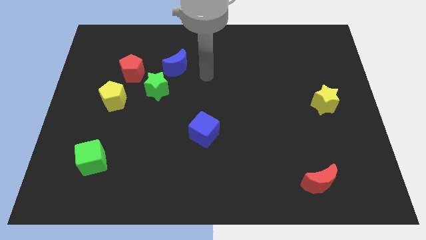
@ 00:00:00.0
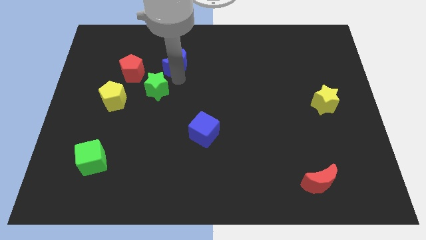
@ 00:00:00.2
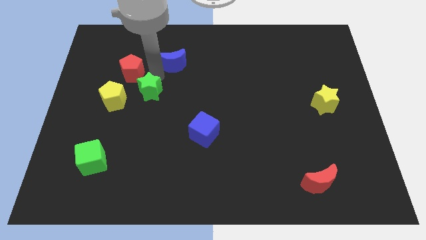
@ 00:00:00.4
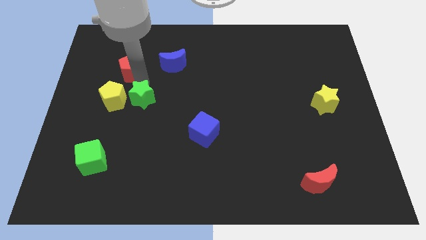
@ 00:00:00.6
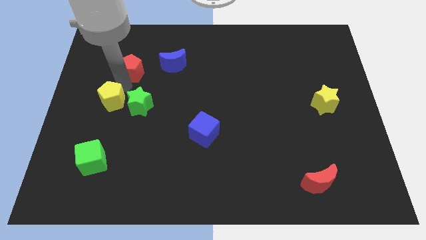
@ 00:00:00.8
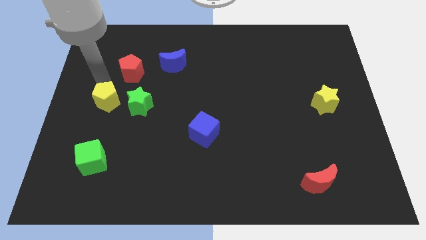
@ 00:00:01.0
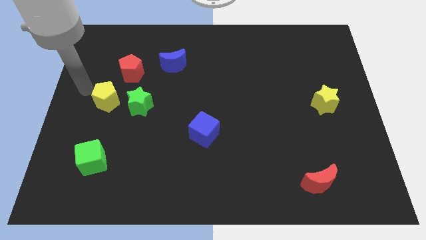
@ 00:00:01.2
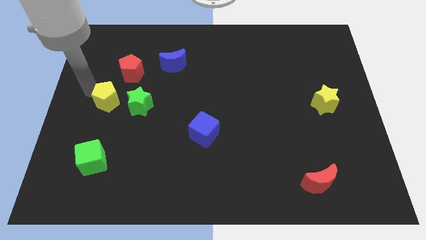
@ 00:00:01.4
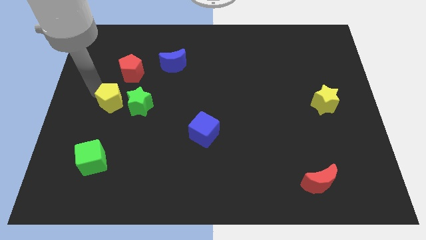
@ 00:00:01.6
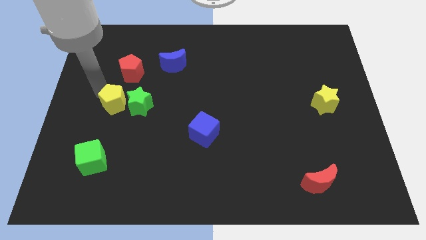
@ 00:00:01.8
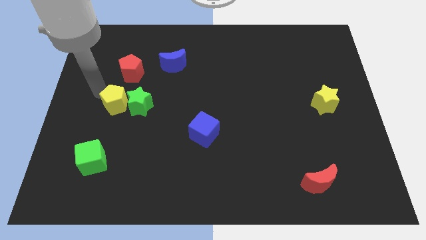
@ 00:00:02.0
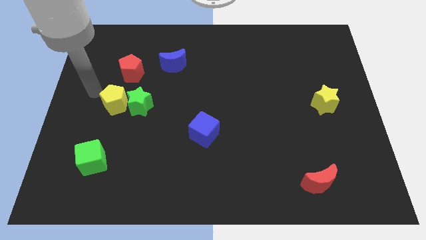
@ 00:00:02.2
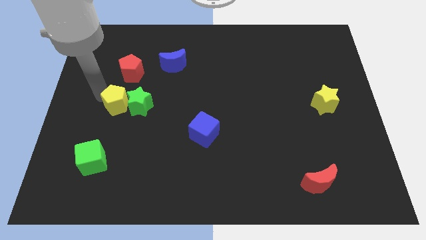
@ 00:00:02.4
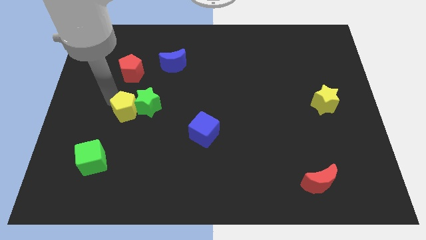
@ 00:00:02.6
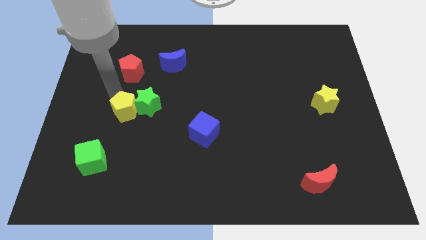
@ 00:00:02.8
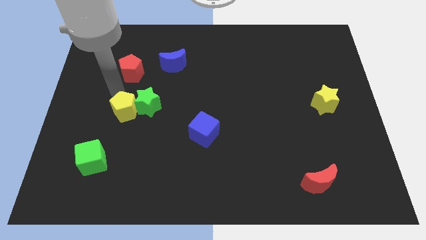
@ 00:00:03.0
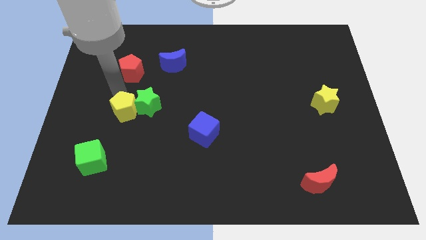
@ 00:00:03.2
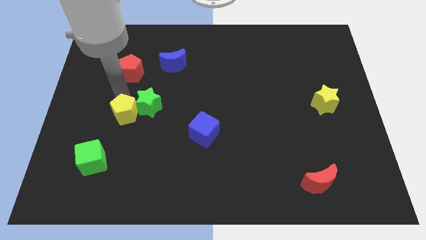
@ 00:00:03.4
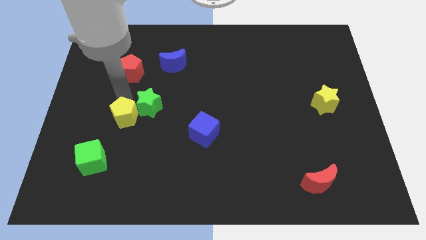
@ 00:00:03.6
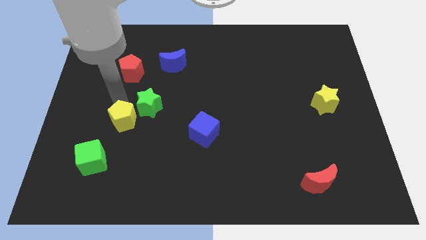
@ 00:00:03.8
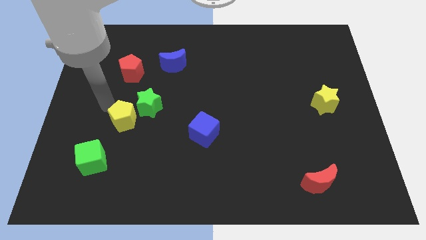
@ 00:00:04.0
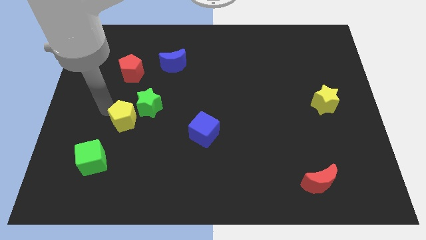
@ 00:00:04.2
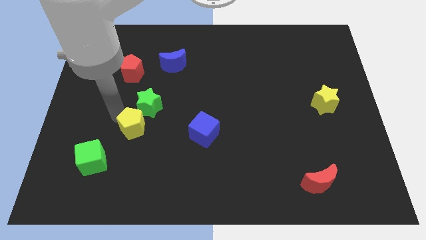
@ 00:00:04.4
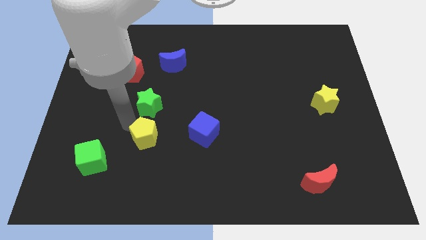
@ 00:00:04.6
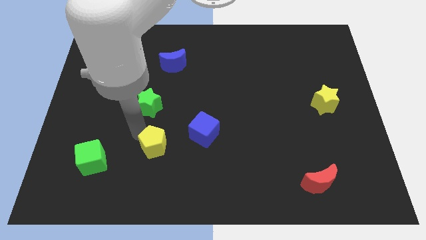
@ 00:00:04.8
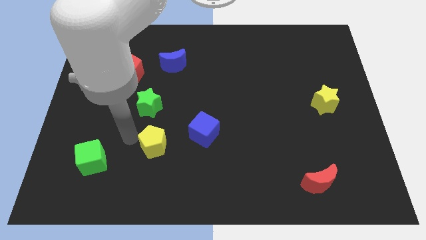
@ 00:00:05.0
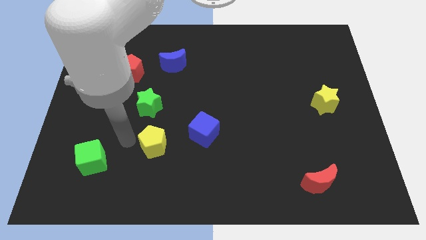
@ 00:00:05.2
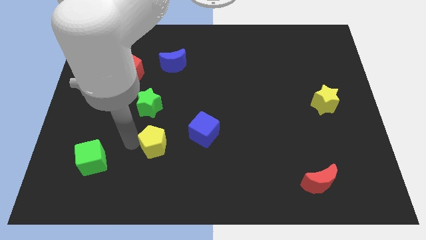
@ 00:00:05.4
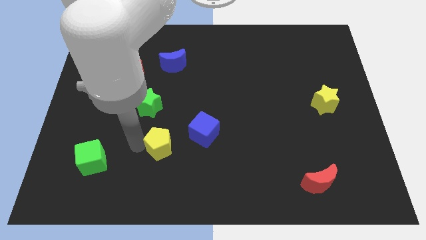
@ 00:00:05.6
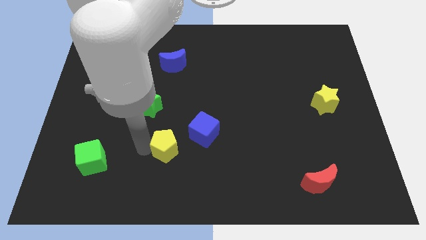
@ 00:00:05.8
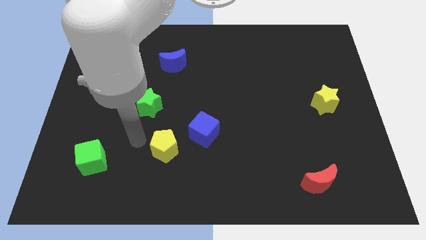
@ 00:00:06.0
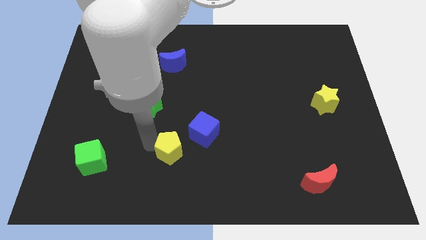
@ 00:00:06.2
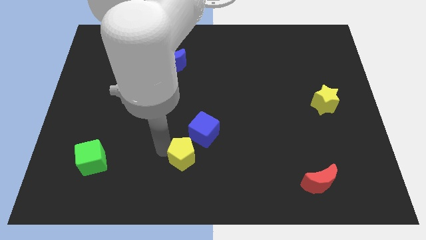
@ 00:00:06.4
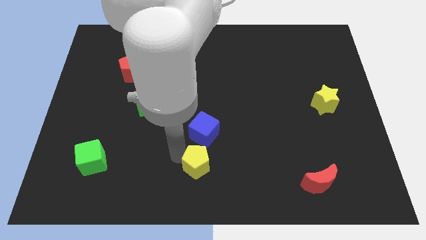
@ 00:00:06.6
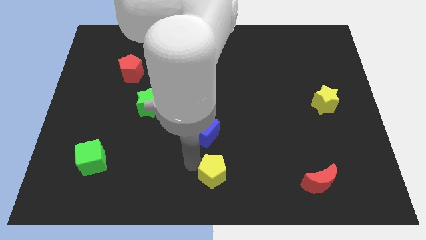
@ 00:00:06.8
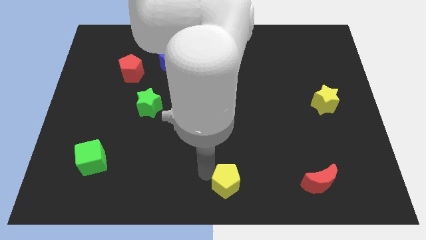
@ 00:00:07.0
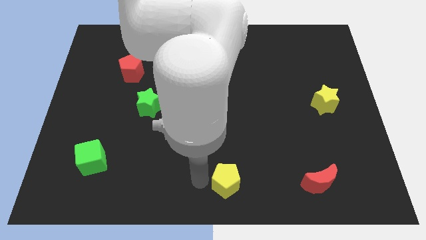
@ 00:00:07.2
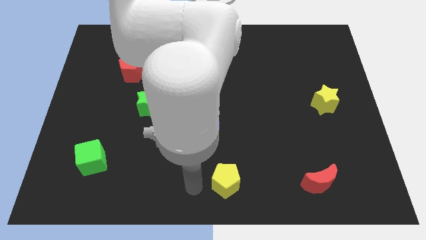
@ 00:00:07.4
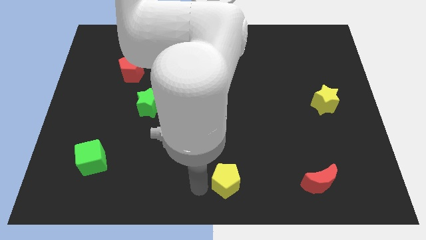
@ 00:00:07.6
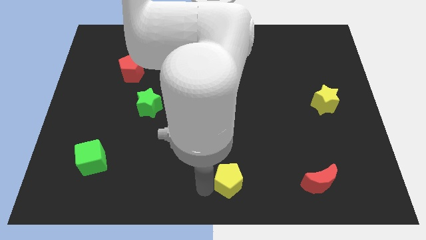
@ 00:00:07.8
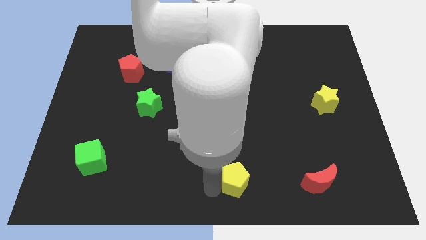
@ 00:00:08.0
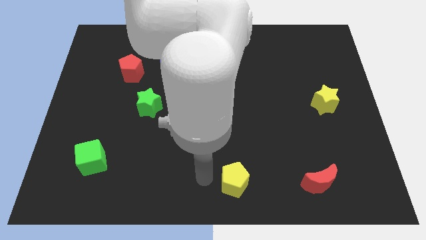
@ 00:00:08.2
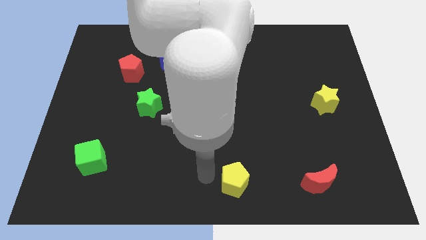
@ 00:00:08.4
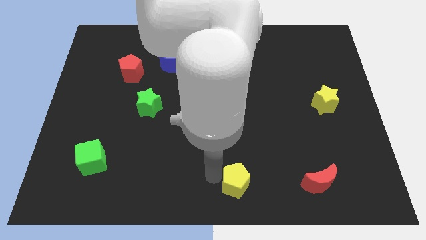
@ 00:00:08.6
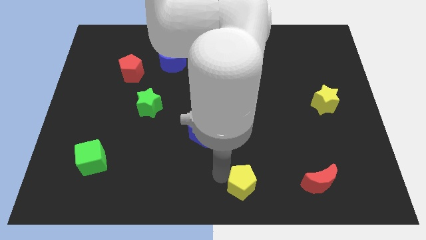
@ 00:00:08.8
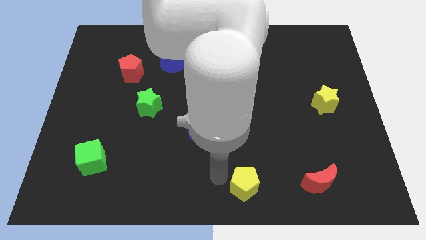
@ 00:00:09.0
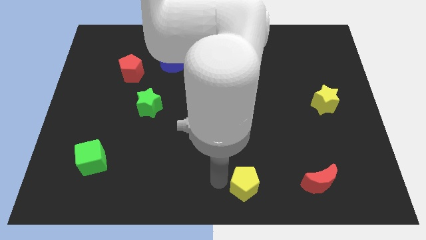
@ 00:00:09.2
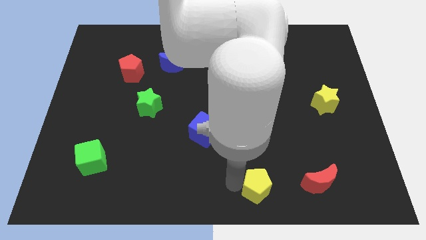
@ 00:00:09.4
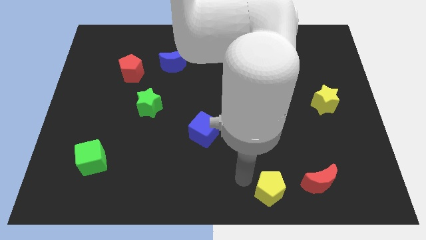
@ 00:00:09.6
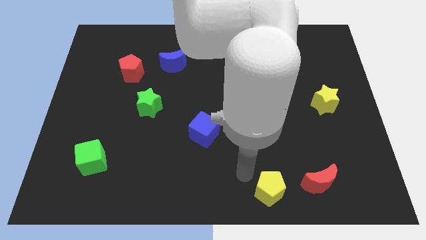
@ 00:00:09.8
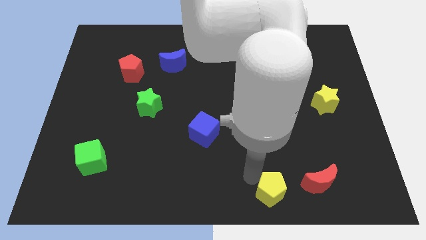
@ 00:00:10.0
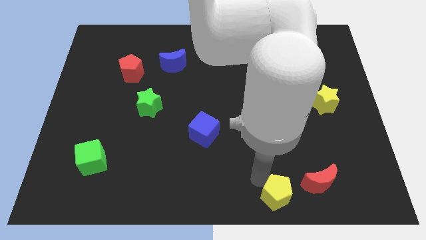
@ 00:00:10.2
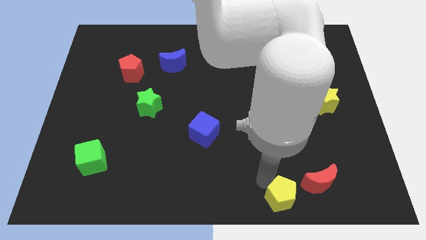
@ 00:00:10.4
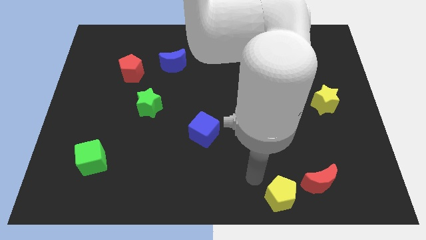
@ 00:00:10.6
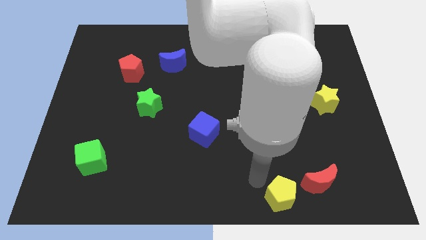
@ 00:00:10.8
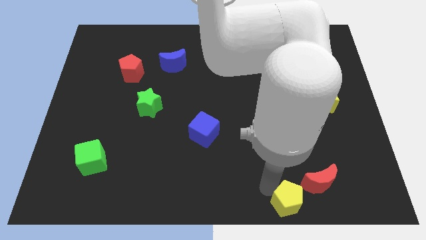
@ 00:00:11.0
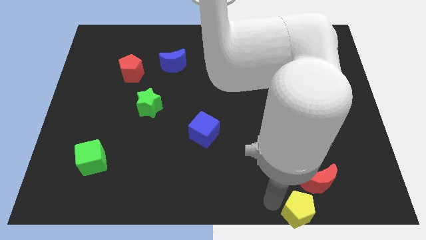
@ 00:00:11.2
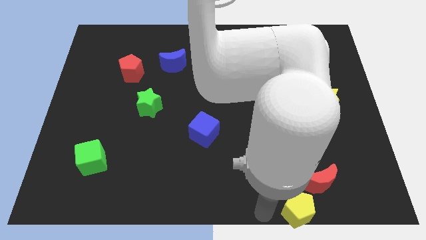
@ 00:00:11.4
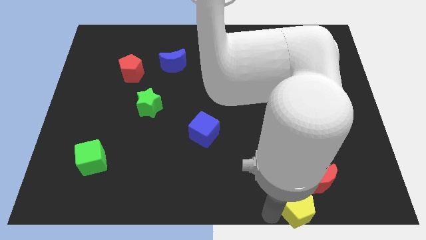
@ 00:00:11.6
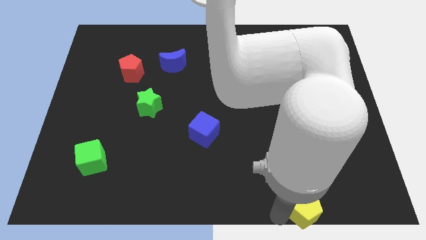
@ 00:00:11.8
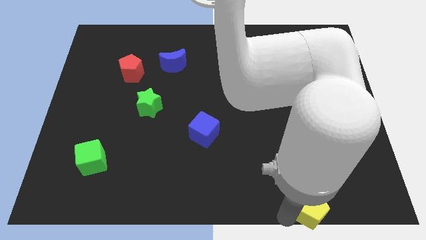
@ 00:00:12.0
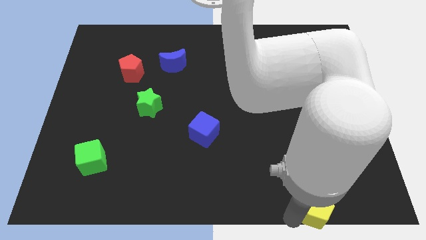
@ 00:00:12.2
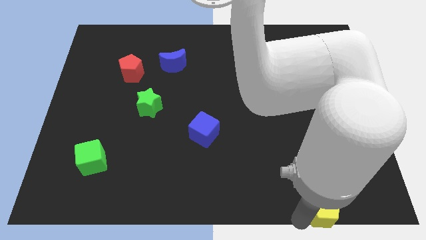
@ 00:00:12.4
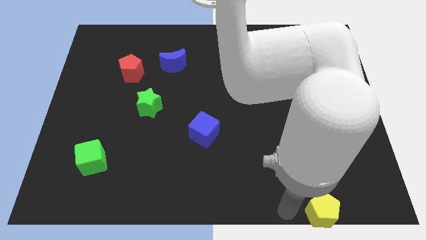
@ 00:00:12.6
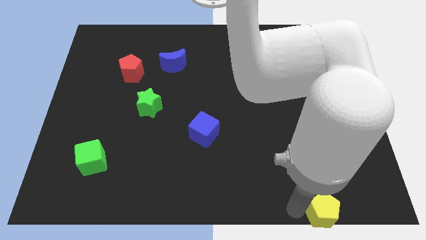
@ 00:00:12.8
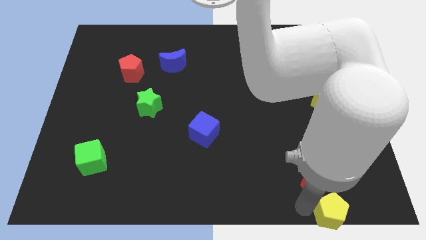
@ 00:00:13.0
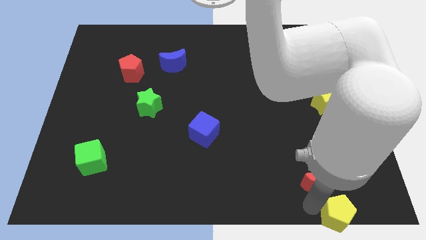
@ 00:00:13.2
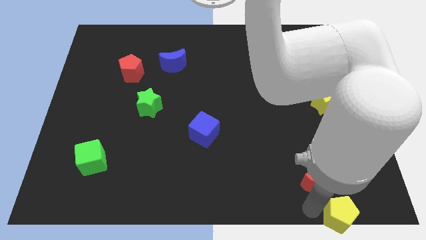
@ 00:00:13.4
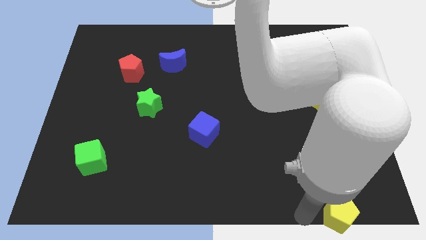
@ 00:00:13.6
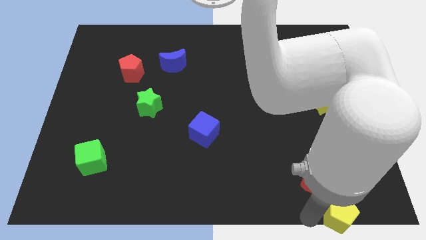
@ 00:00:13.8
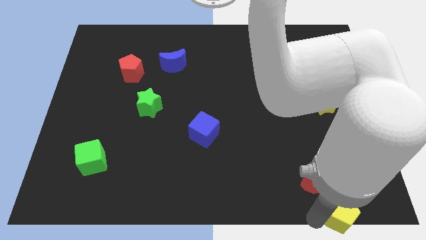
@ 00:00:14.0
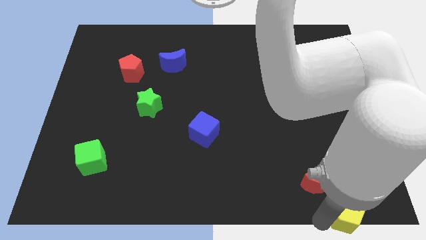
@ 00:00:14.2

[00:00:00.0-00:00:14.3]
slide the yellow pentagon to the bottom right of the board

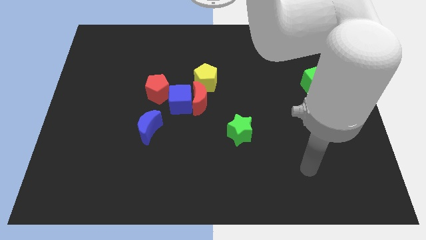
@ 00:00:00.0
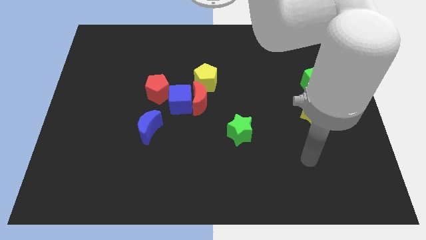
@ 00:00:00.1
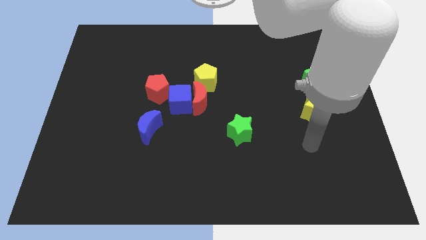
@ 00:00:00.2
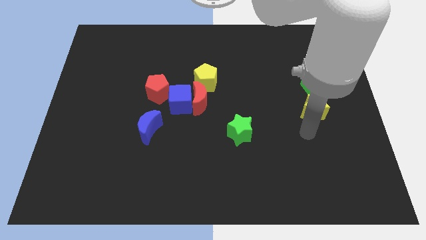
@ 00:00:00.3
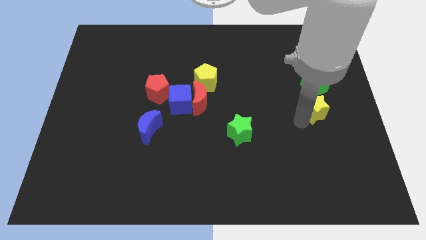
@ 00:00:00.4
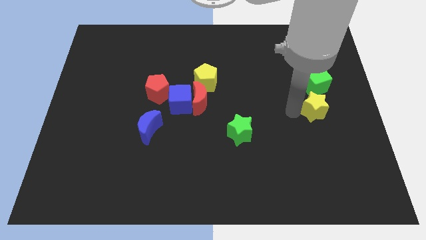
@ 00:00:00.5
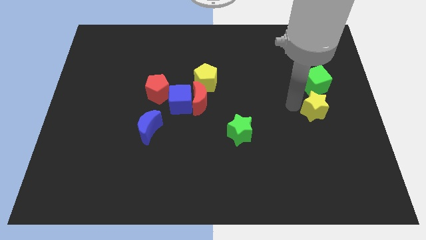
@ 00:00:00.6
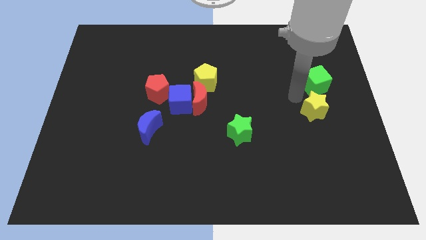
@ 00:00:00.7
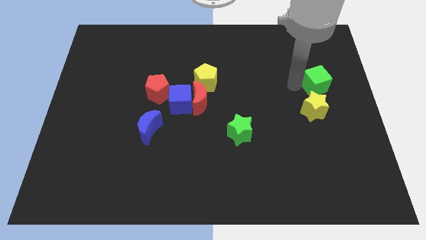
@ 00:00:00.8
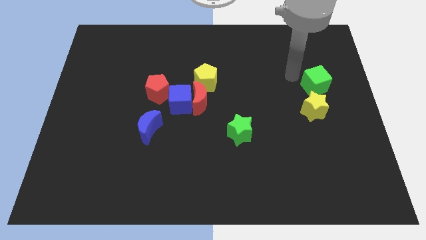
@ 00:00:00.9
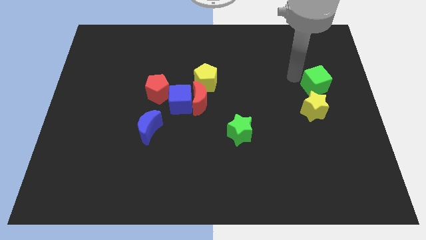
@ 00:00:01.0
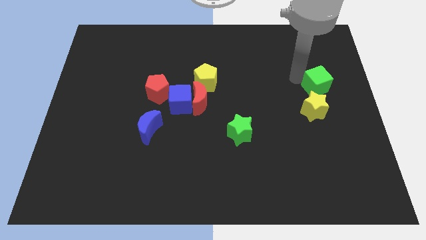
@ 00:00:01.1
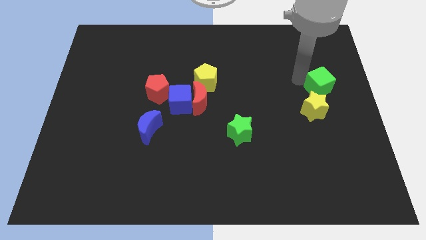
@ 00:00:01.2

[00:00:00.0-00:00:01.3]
slide the green cube to the right side
